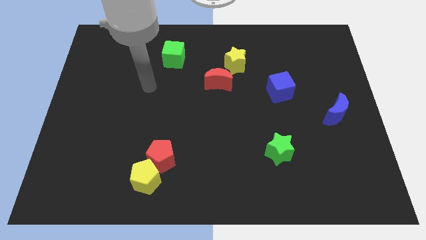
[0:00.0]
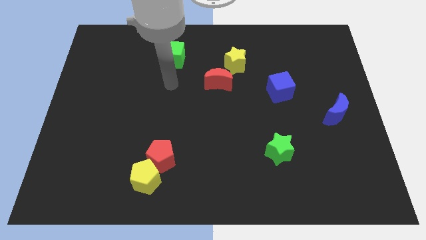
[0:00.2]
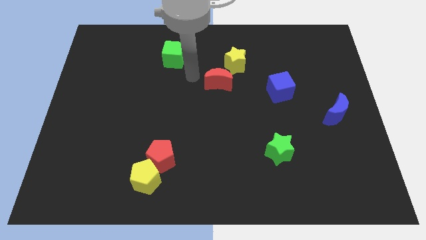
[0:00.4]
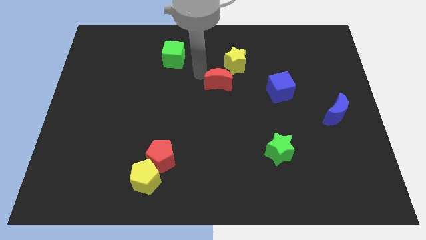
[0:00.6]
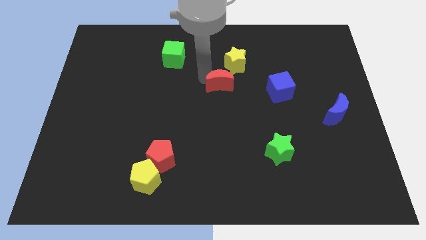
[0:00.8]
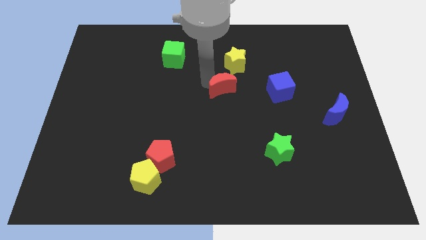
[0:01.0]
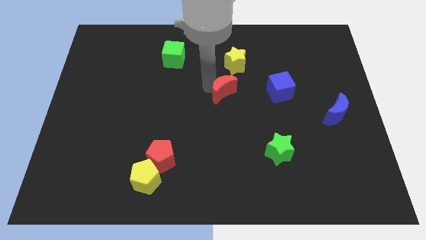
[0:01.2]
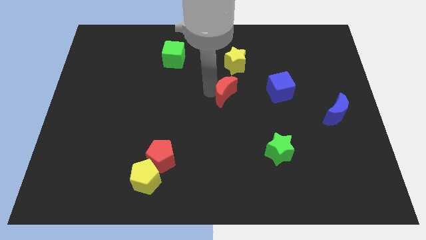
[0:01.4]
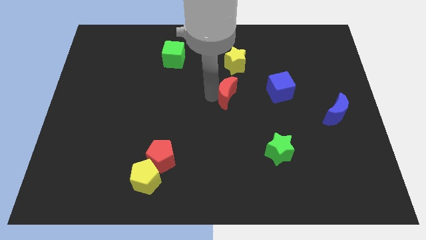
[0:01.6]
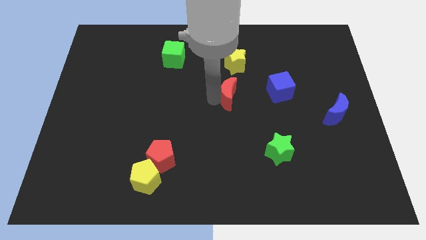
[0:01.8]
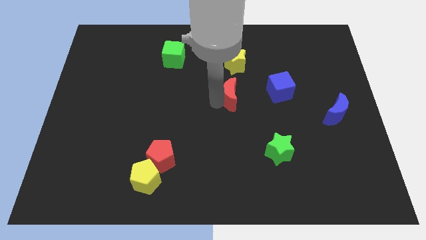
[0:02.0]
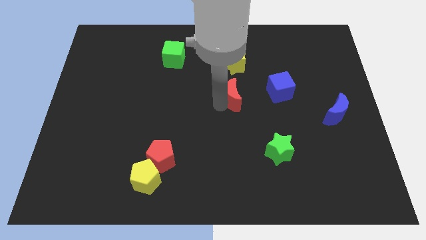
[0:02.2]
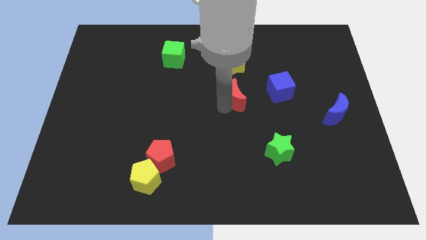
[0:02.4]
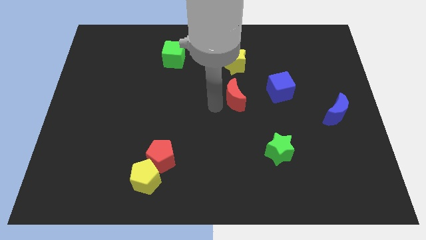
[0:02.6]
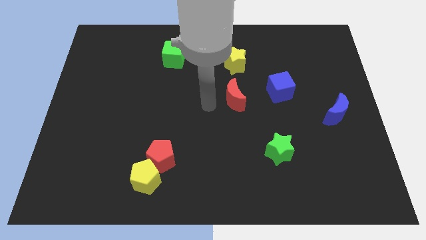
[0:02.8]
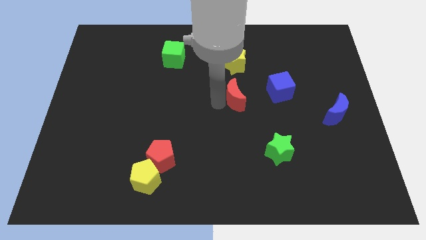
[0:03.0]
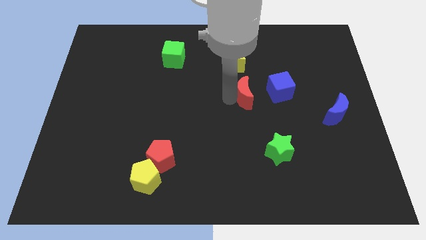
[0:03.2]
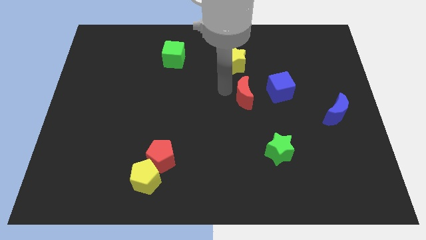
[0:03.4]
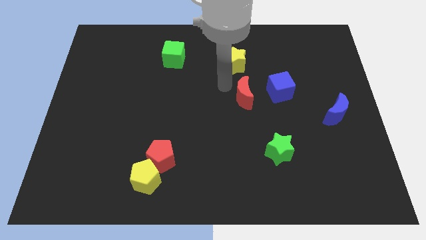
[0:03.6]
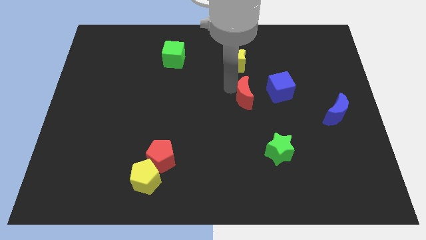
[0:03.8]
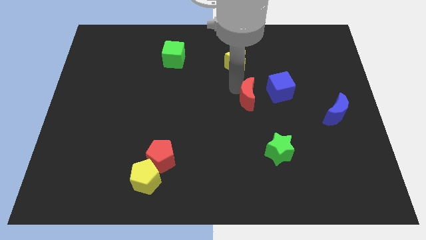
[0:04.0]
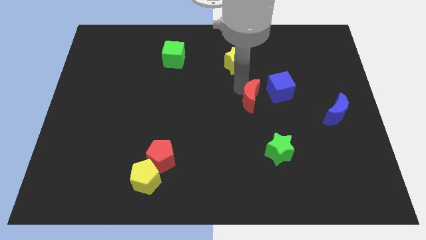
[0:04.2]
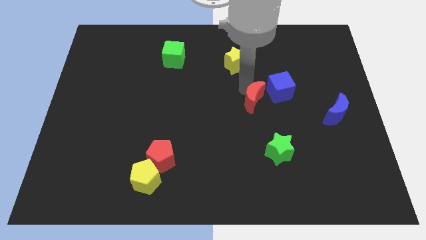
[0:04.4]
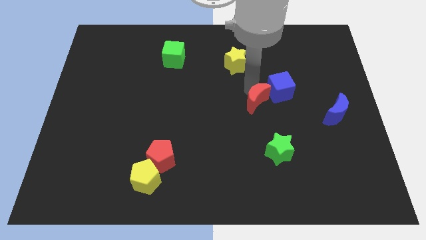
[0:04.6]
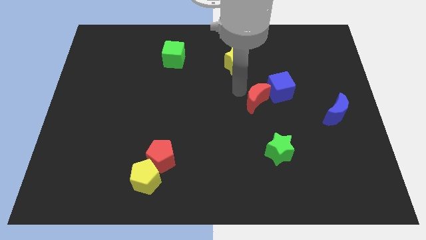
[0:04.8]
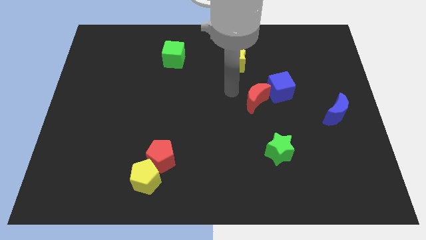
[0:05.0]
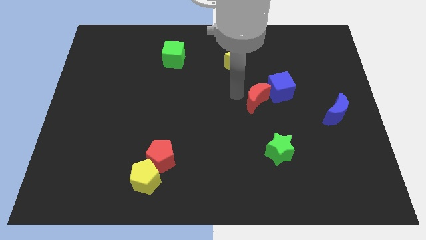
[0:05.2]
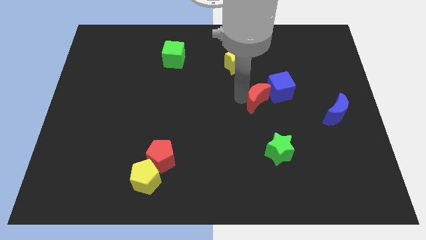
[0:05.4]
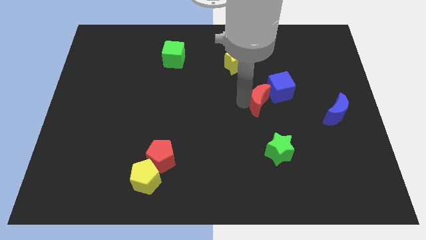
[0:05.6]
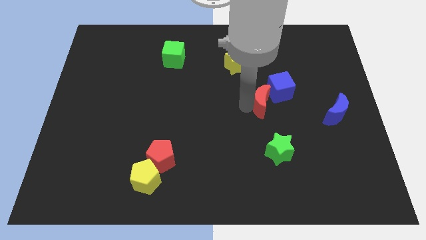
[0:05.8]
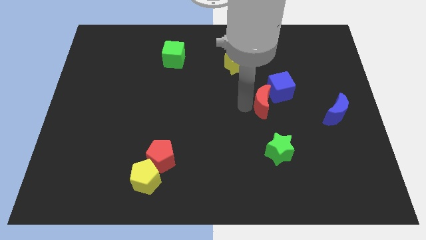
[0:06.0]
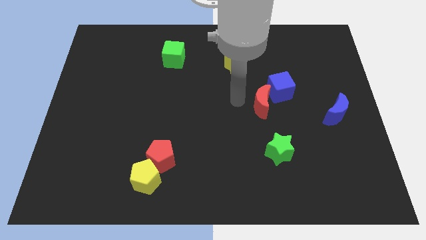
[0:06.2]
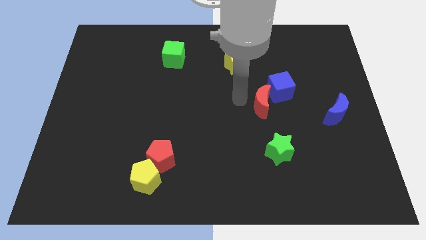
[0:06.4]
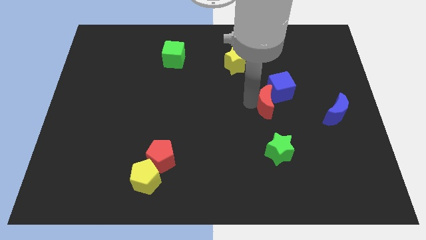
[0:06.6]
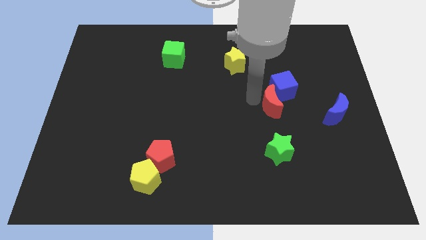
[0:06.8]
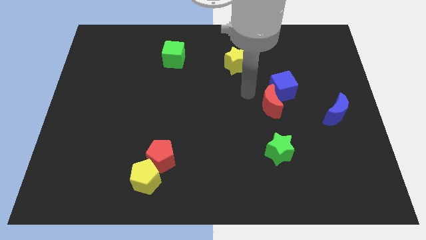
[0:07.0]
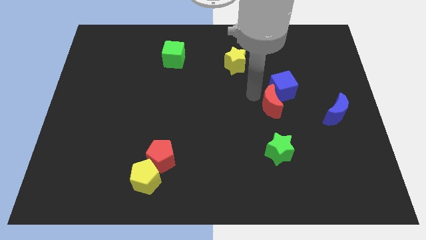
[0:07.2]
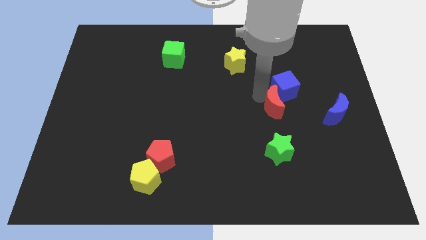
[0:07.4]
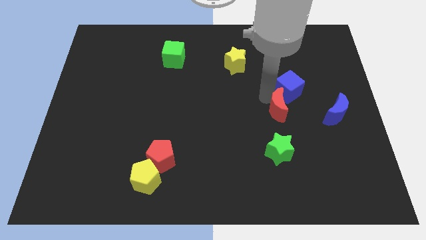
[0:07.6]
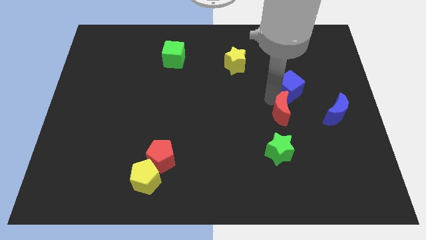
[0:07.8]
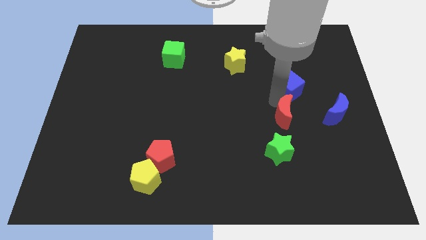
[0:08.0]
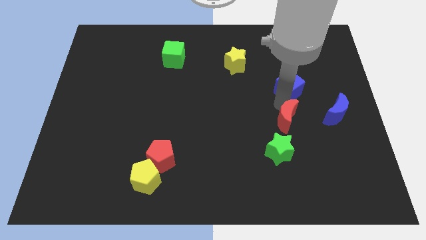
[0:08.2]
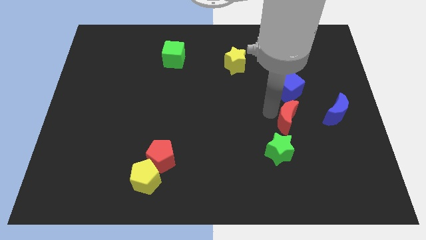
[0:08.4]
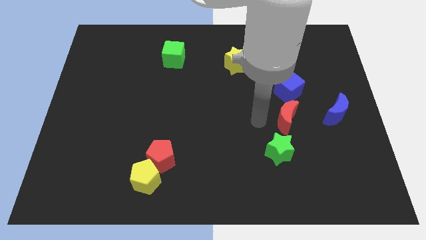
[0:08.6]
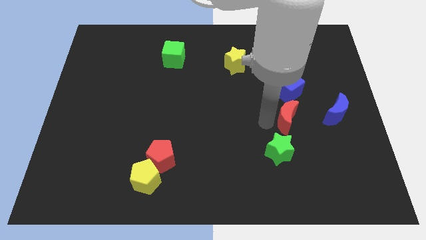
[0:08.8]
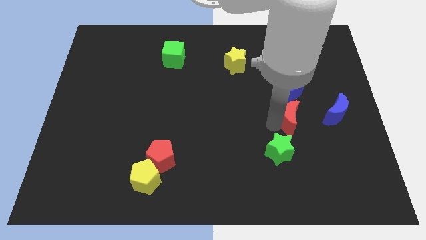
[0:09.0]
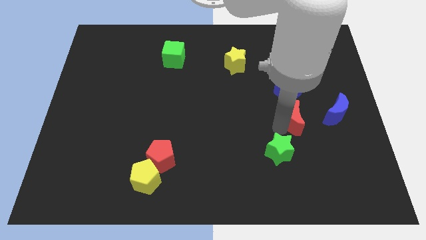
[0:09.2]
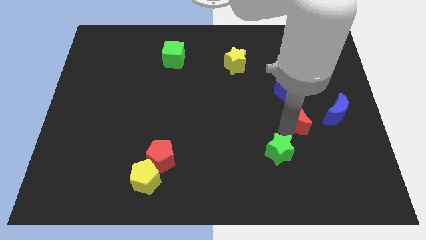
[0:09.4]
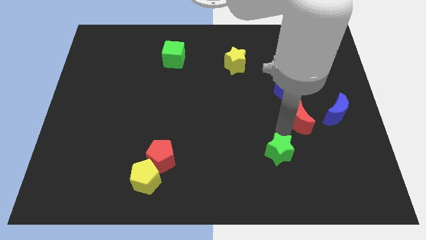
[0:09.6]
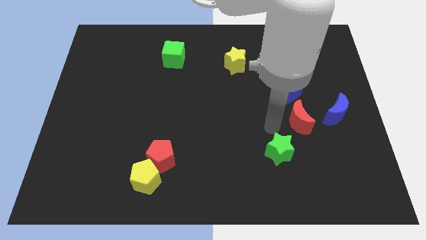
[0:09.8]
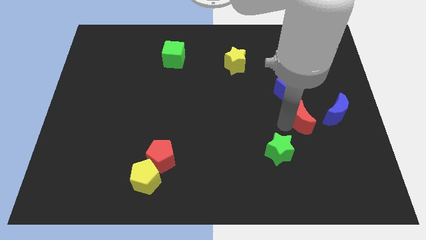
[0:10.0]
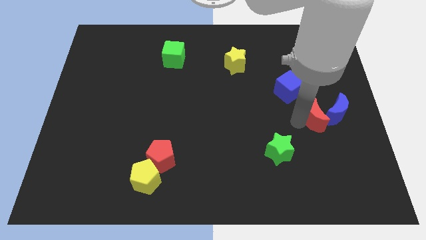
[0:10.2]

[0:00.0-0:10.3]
push the red moon towards the blue moon
